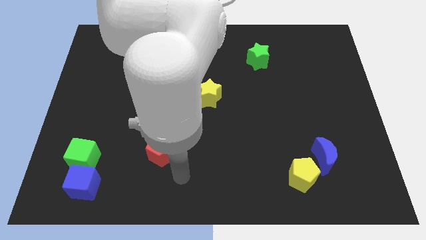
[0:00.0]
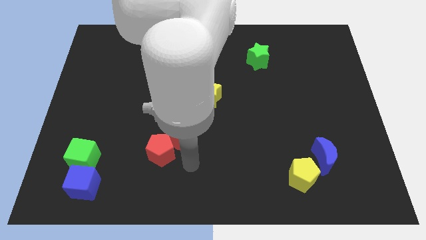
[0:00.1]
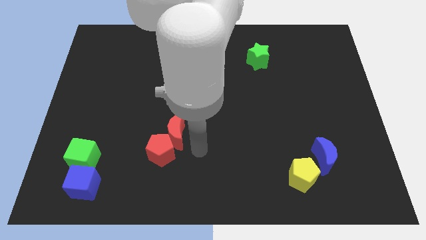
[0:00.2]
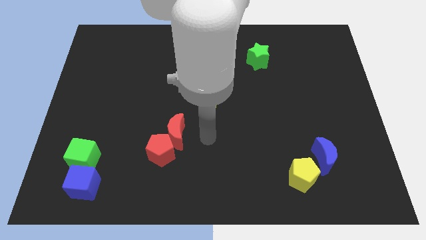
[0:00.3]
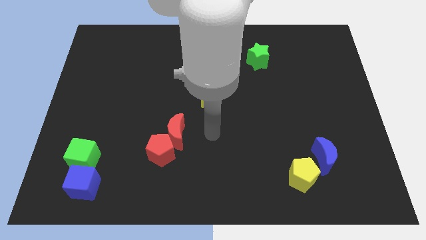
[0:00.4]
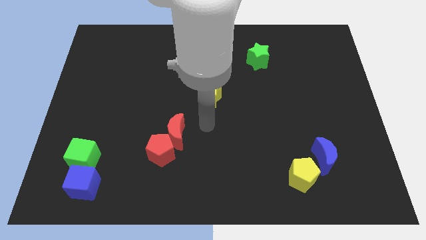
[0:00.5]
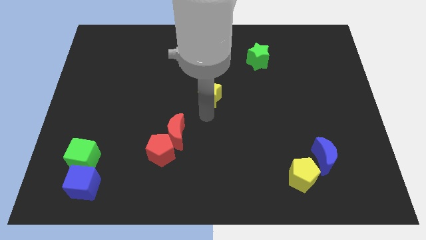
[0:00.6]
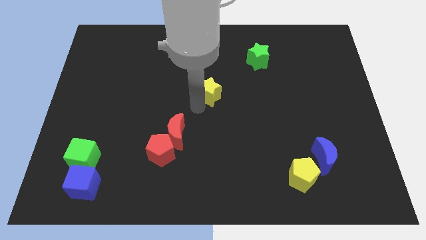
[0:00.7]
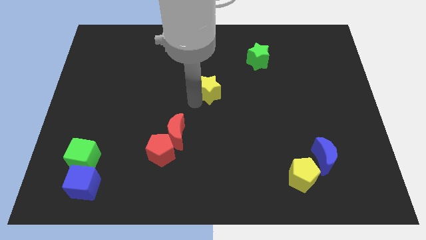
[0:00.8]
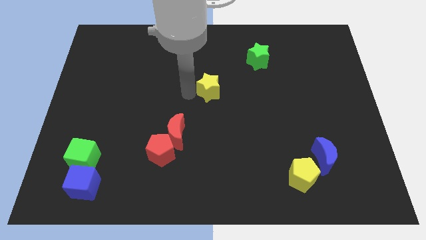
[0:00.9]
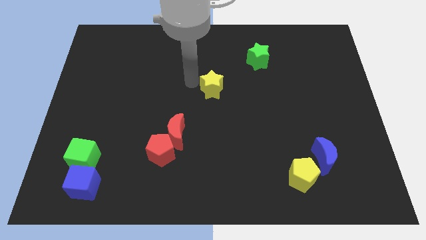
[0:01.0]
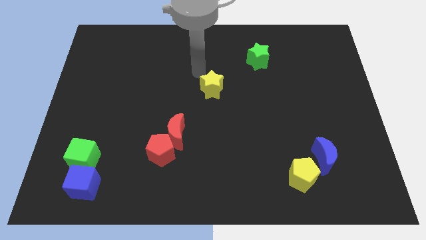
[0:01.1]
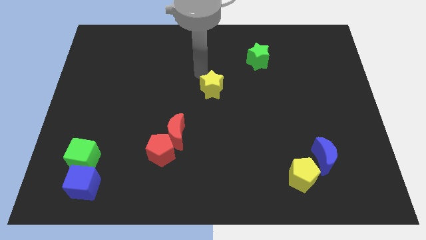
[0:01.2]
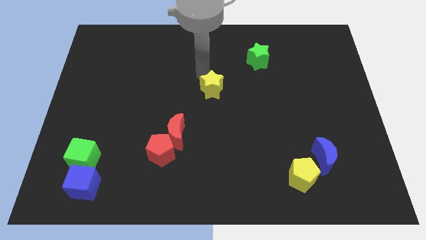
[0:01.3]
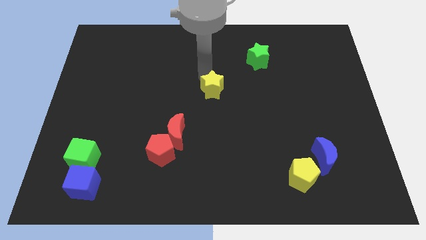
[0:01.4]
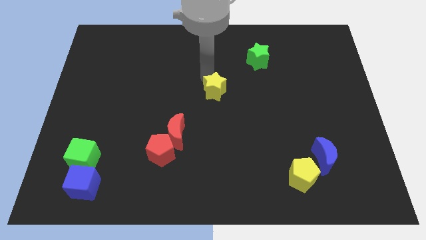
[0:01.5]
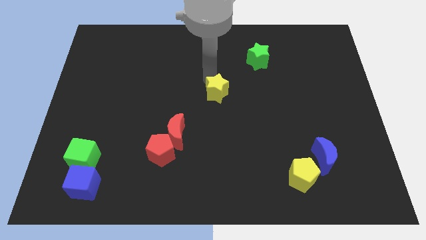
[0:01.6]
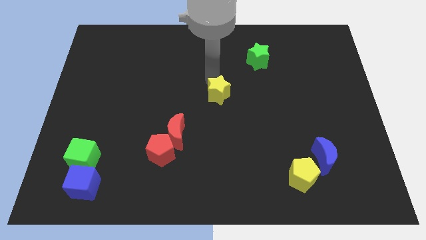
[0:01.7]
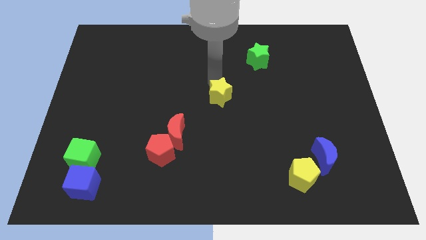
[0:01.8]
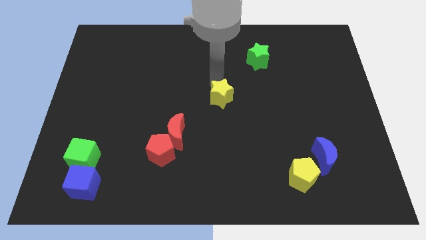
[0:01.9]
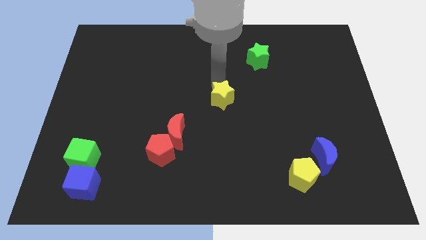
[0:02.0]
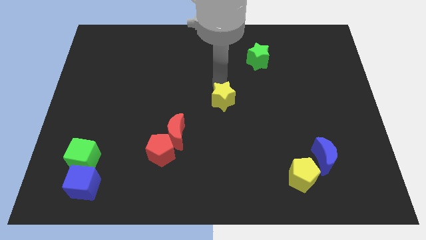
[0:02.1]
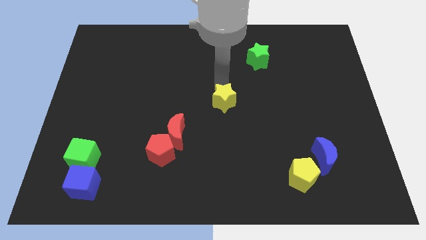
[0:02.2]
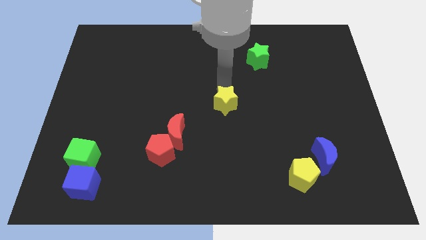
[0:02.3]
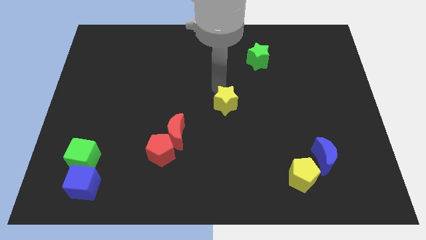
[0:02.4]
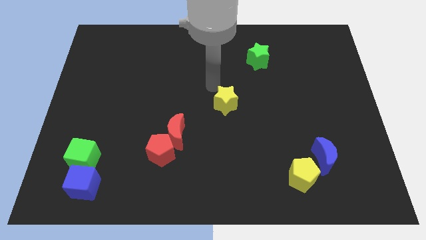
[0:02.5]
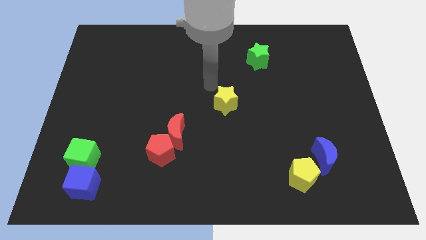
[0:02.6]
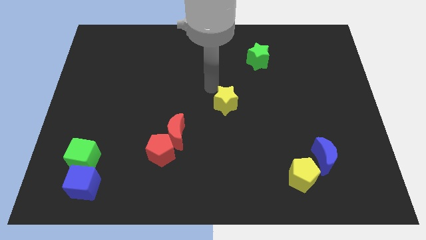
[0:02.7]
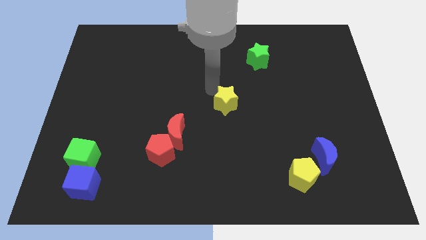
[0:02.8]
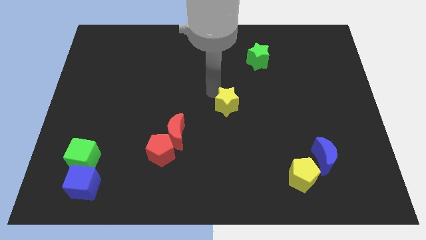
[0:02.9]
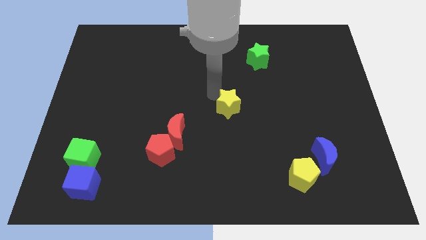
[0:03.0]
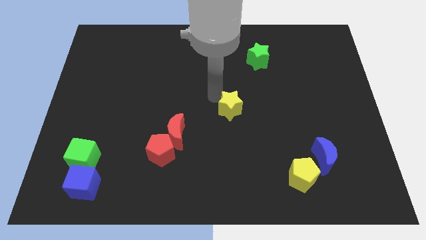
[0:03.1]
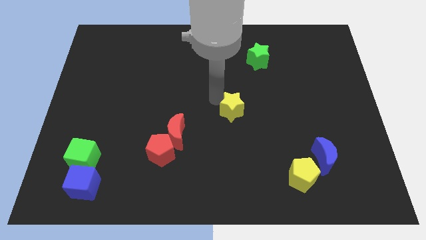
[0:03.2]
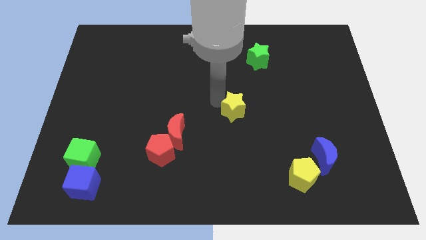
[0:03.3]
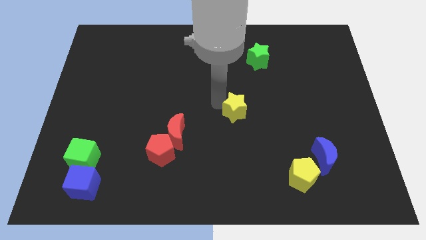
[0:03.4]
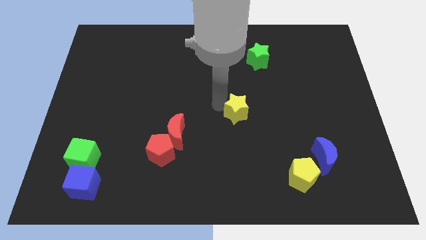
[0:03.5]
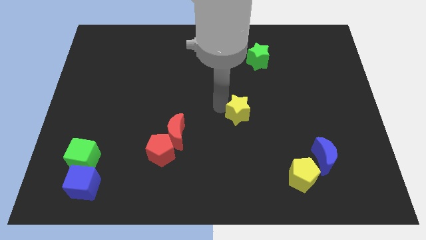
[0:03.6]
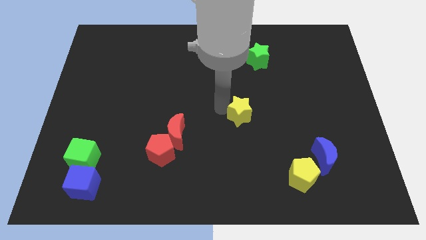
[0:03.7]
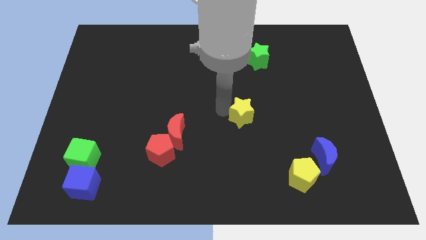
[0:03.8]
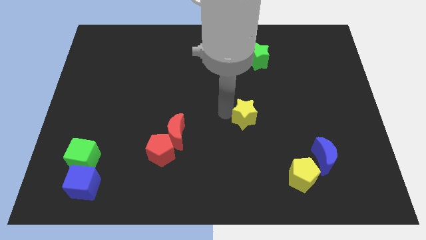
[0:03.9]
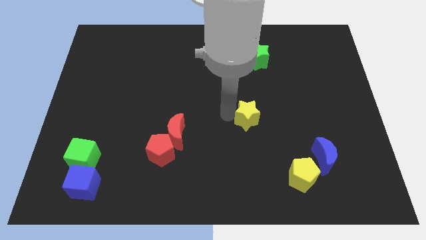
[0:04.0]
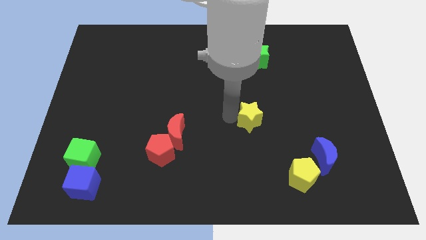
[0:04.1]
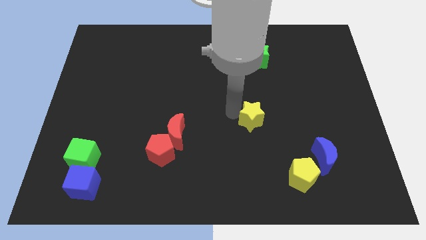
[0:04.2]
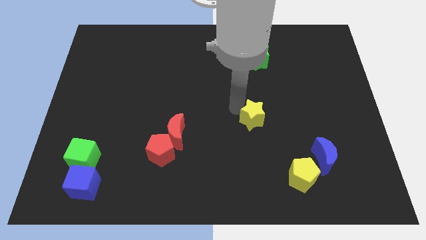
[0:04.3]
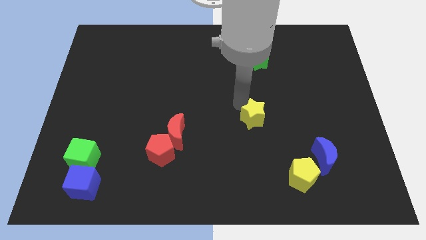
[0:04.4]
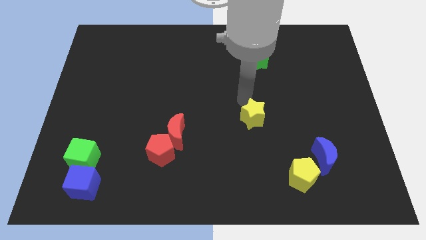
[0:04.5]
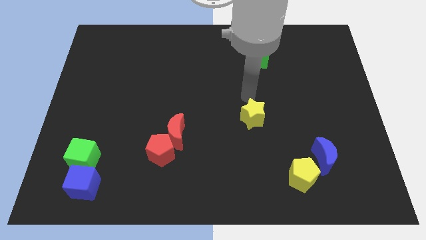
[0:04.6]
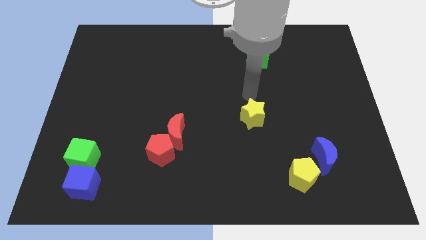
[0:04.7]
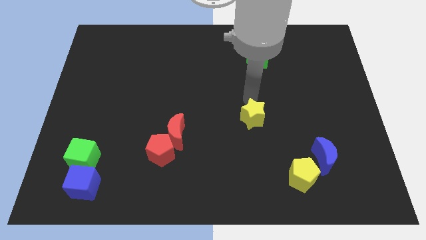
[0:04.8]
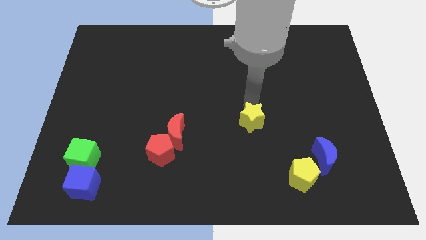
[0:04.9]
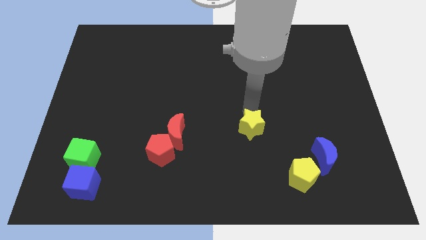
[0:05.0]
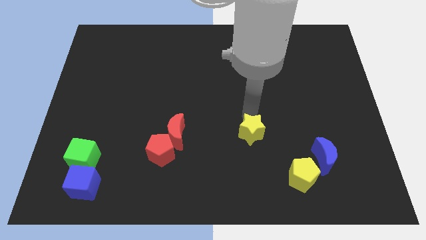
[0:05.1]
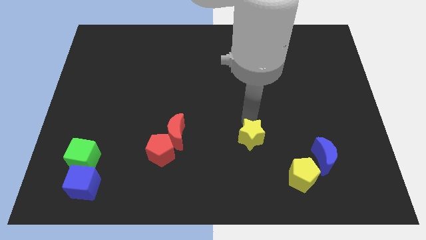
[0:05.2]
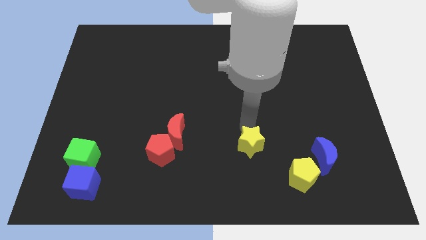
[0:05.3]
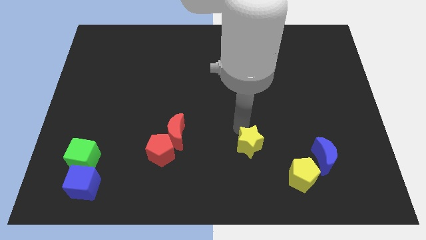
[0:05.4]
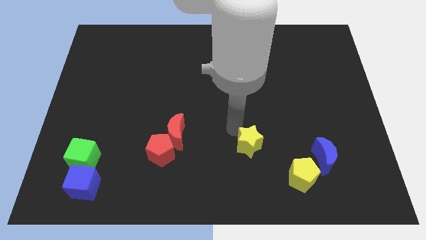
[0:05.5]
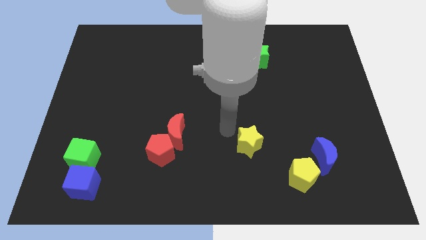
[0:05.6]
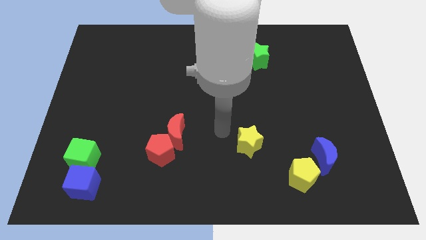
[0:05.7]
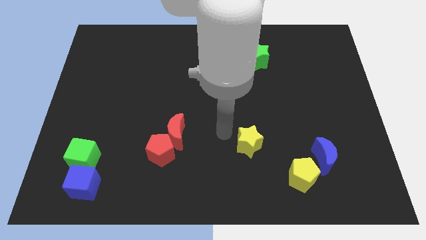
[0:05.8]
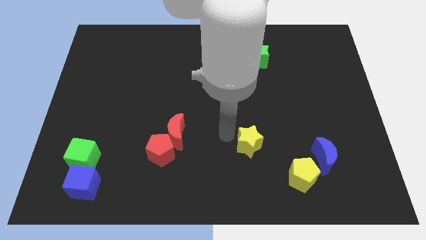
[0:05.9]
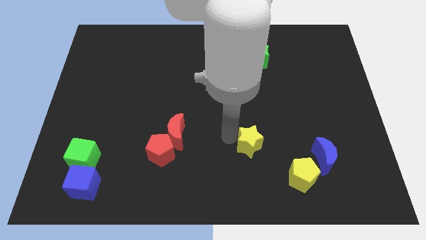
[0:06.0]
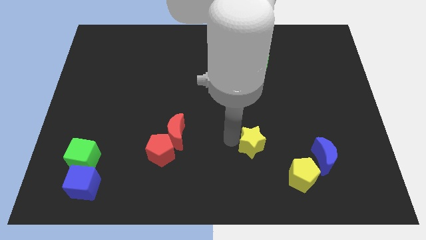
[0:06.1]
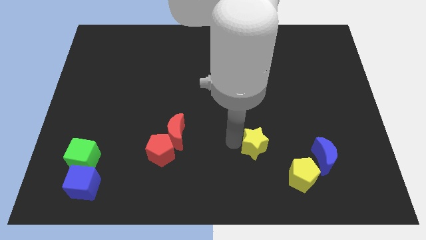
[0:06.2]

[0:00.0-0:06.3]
move the yellow star to the left side of the blue moon
